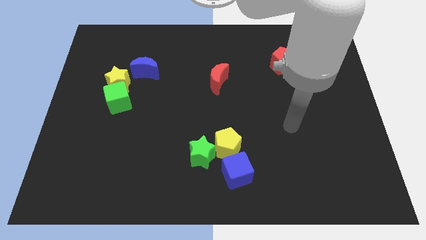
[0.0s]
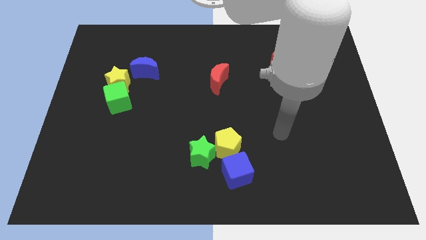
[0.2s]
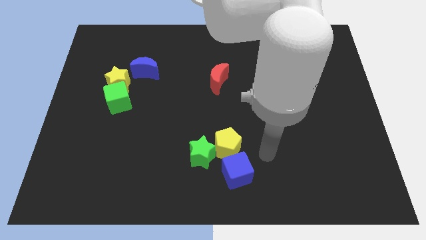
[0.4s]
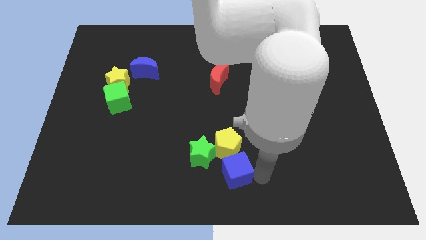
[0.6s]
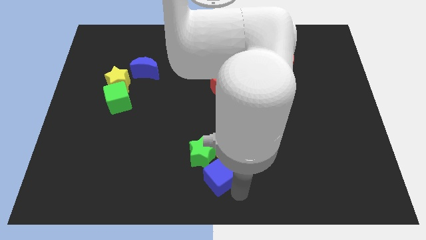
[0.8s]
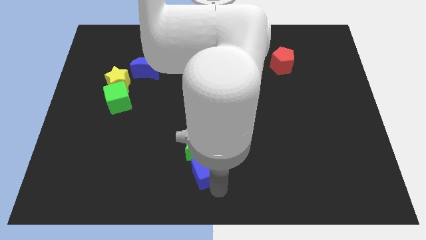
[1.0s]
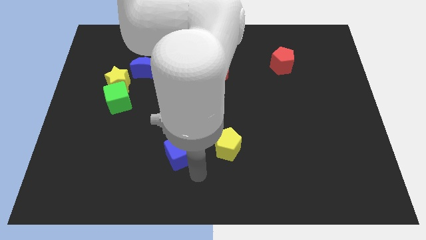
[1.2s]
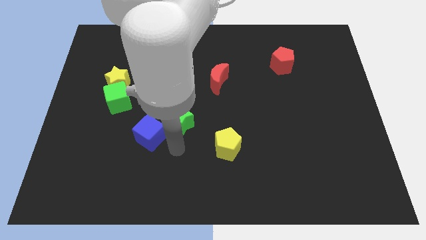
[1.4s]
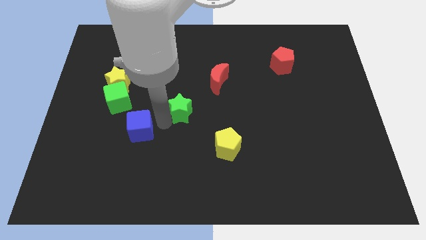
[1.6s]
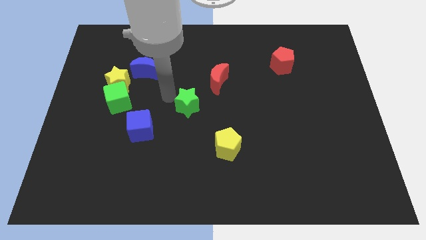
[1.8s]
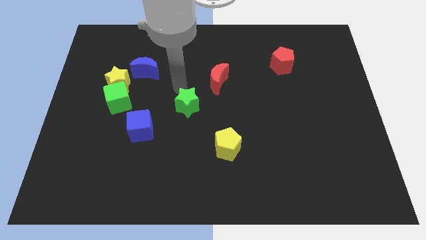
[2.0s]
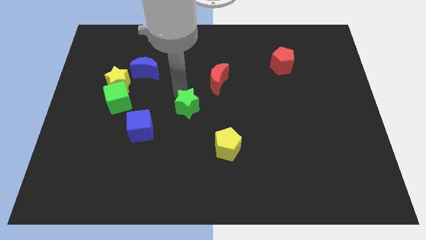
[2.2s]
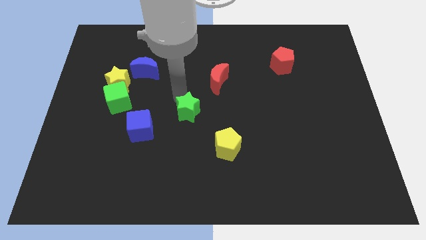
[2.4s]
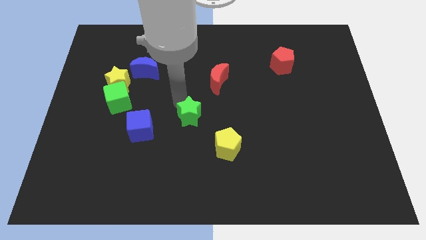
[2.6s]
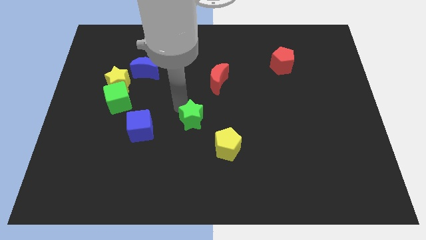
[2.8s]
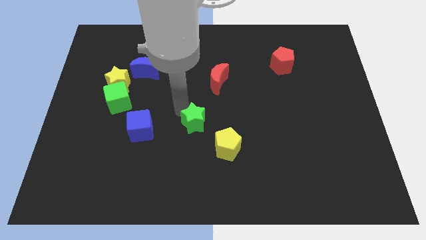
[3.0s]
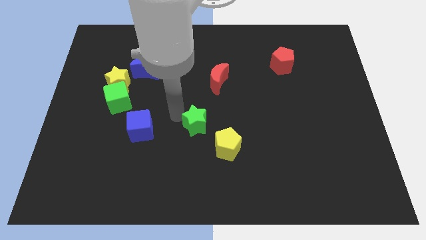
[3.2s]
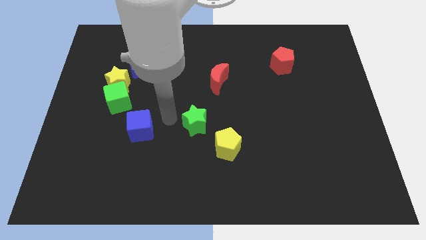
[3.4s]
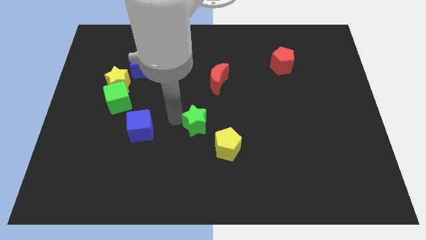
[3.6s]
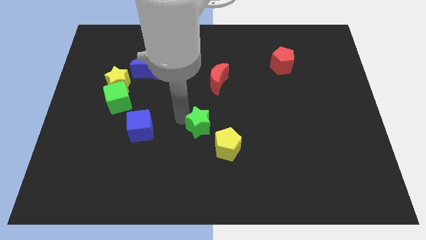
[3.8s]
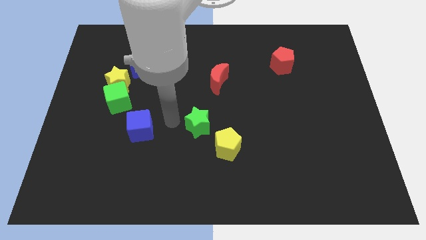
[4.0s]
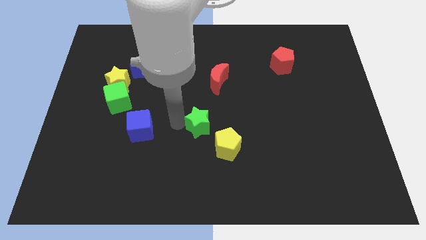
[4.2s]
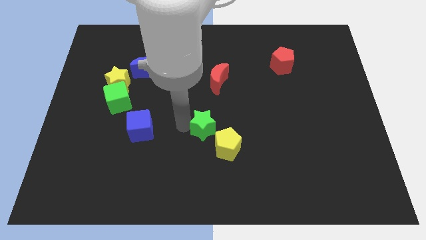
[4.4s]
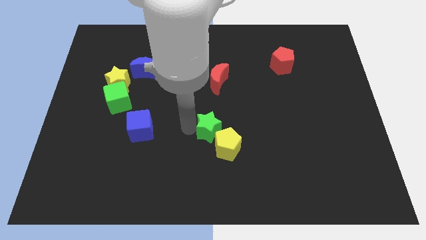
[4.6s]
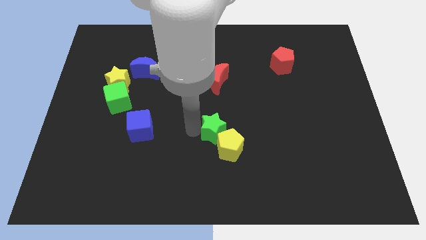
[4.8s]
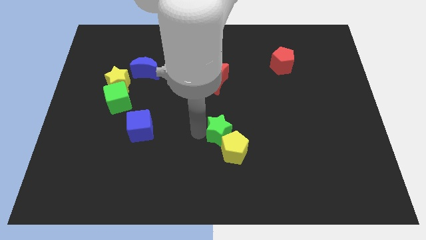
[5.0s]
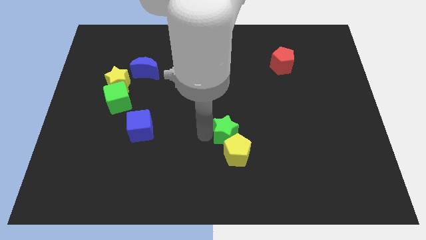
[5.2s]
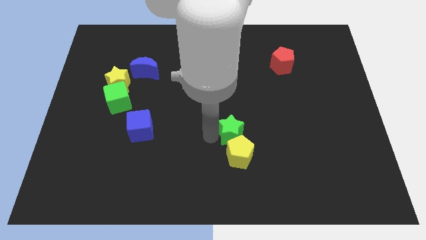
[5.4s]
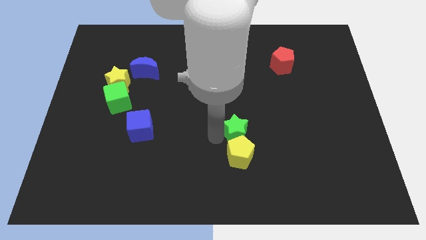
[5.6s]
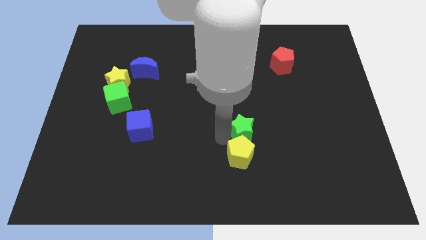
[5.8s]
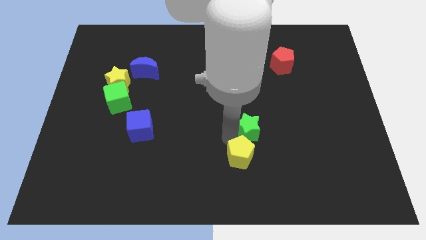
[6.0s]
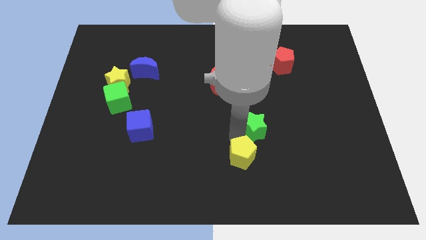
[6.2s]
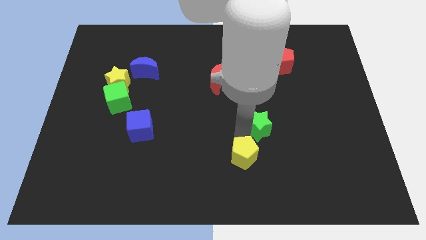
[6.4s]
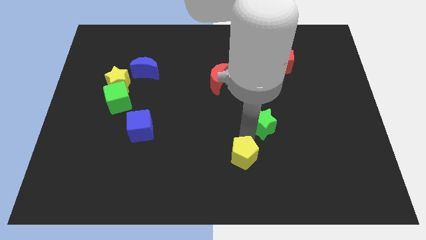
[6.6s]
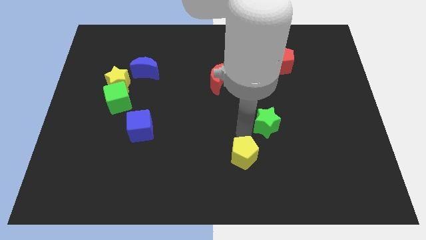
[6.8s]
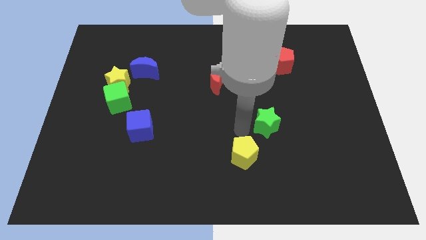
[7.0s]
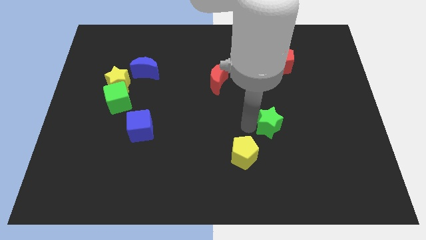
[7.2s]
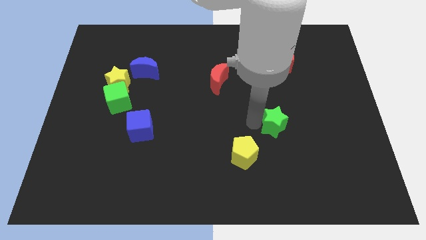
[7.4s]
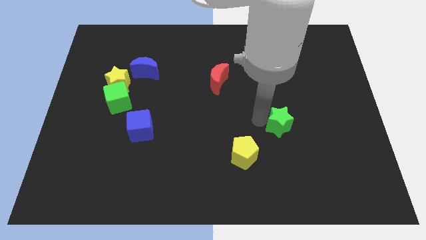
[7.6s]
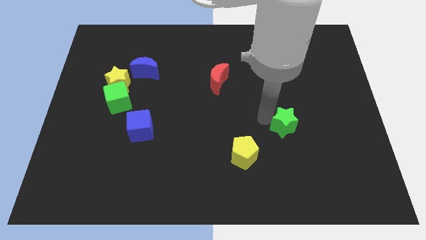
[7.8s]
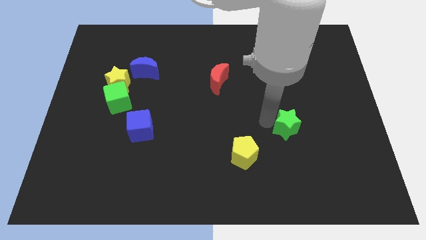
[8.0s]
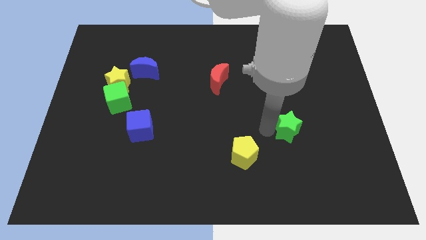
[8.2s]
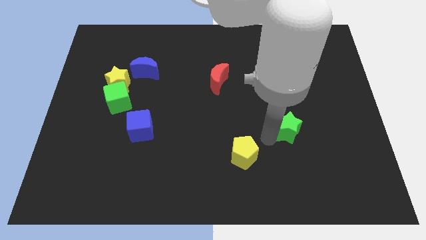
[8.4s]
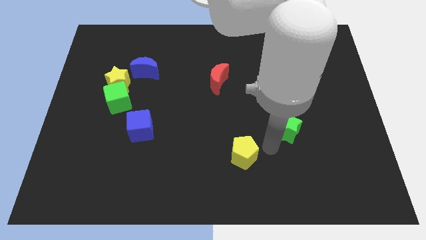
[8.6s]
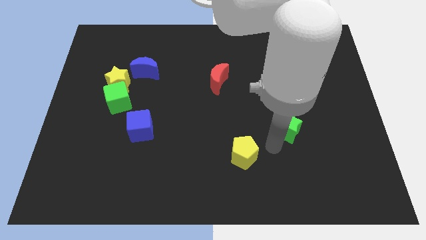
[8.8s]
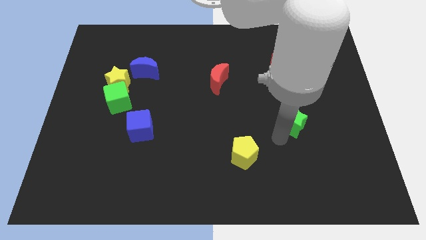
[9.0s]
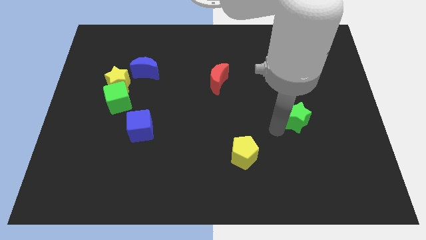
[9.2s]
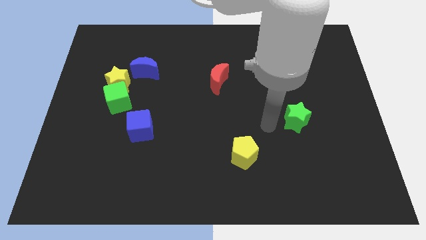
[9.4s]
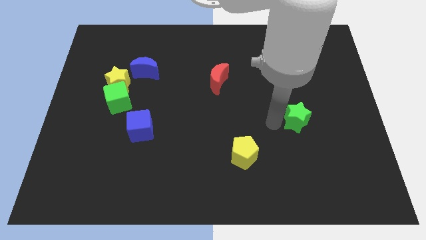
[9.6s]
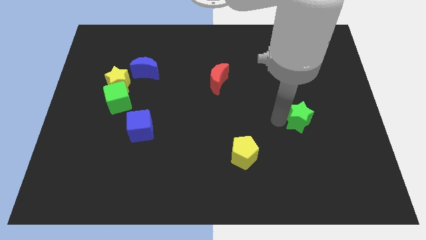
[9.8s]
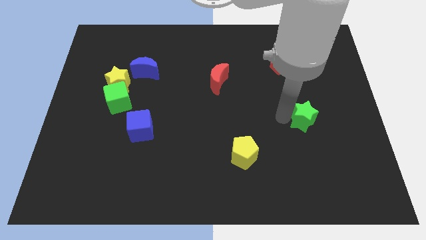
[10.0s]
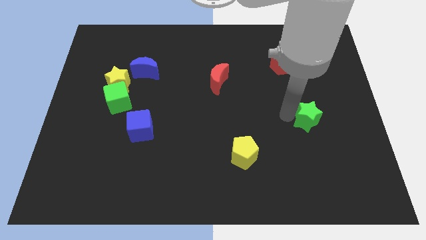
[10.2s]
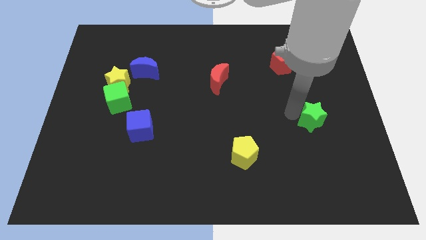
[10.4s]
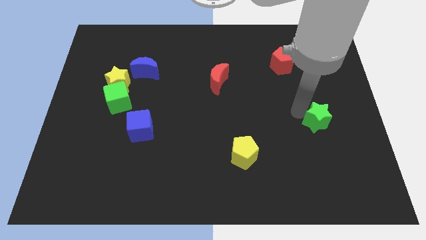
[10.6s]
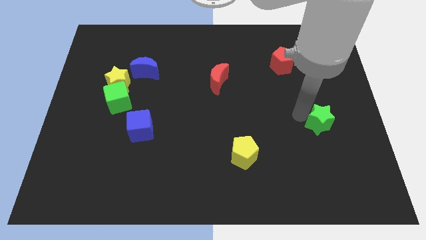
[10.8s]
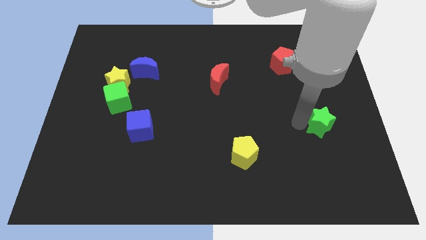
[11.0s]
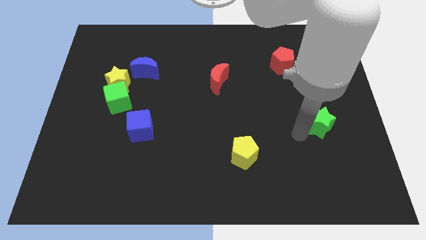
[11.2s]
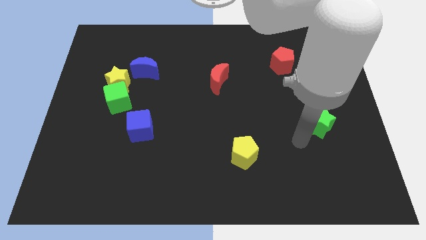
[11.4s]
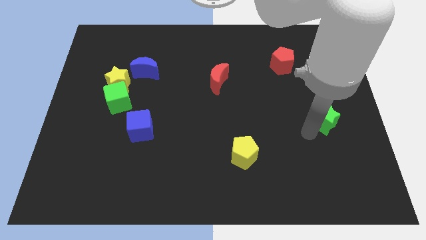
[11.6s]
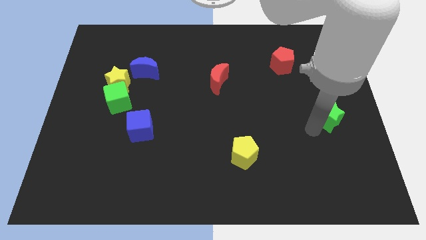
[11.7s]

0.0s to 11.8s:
slide the green star to the right side of the board

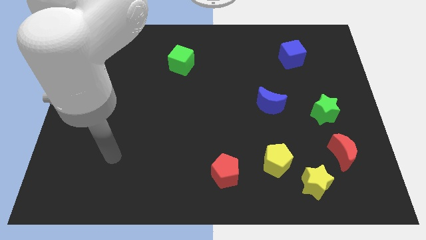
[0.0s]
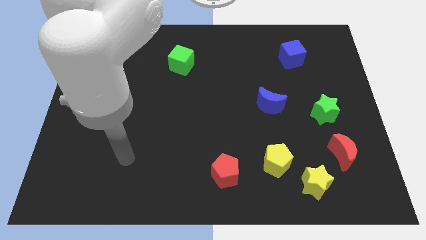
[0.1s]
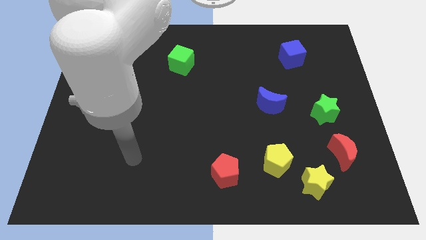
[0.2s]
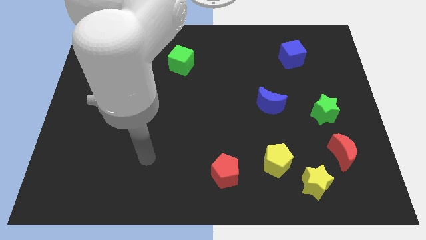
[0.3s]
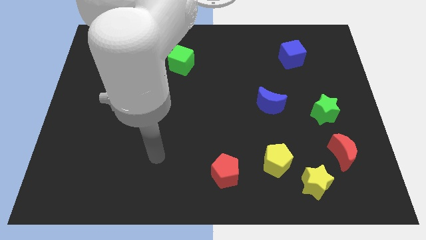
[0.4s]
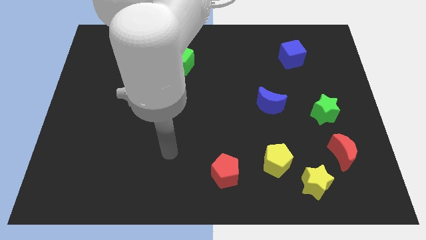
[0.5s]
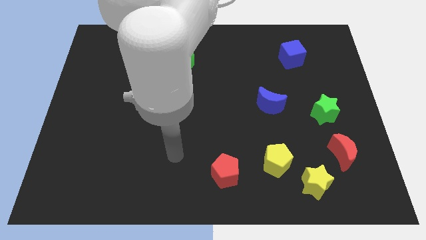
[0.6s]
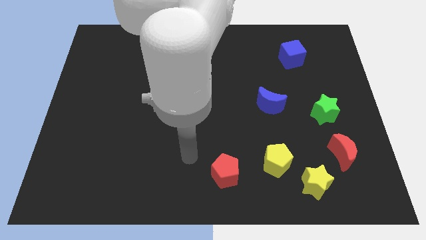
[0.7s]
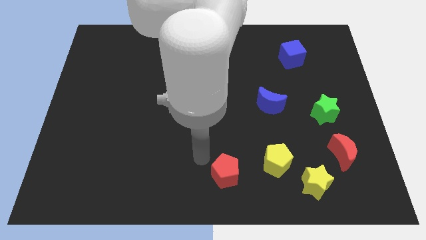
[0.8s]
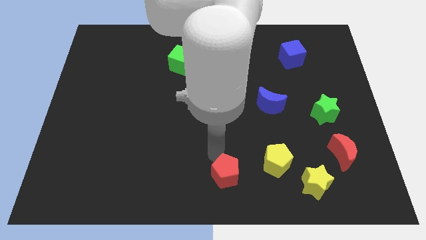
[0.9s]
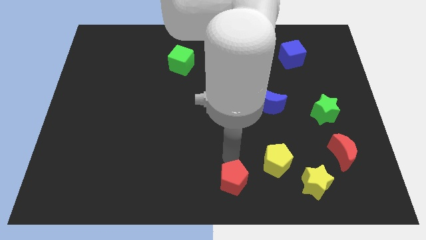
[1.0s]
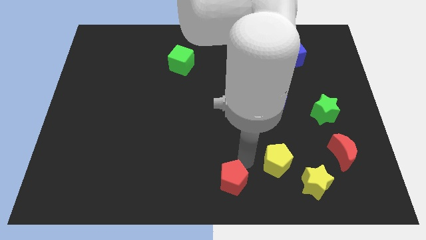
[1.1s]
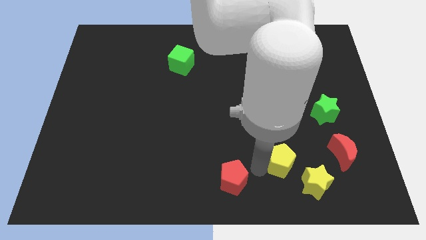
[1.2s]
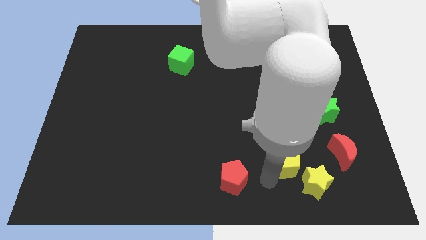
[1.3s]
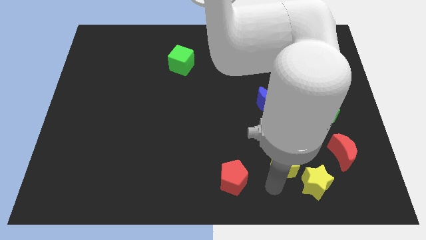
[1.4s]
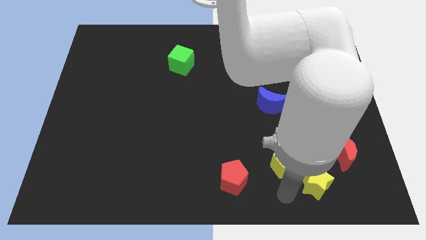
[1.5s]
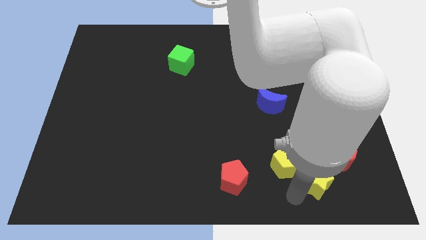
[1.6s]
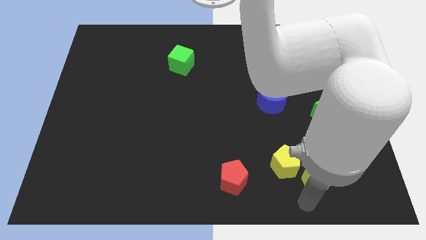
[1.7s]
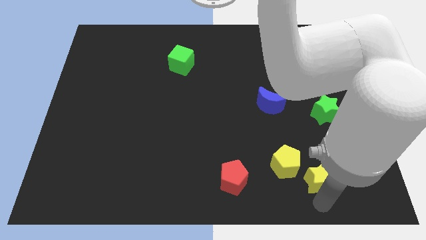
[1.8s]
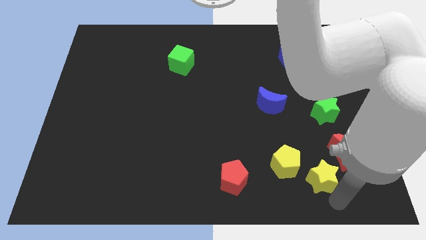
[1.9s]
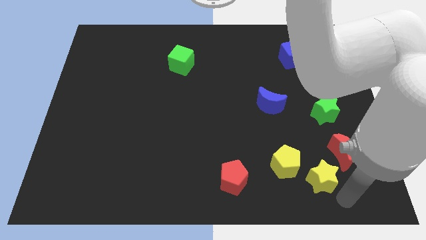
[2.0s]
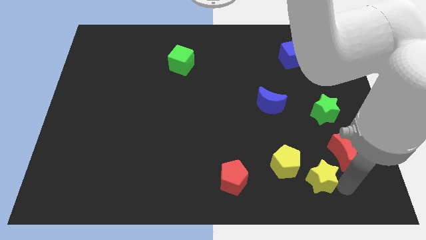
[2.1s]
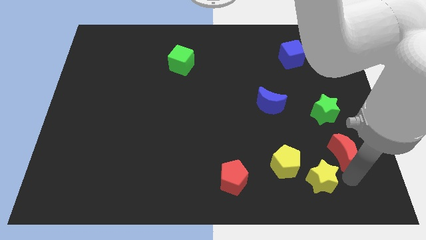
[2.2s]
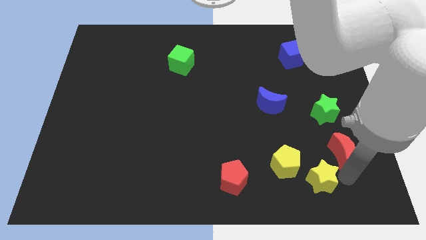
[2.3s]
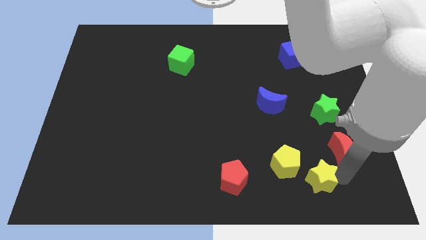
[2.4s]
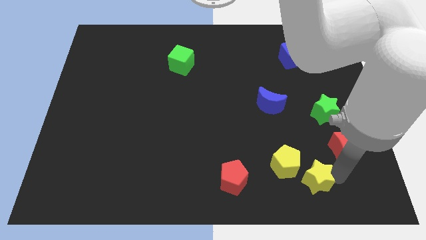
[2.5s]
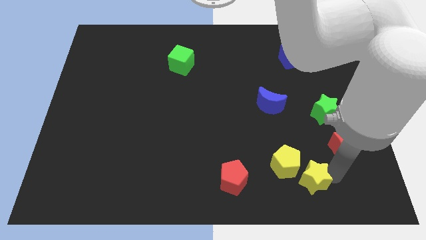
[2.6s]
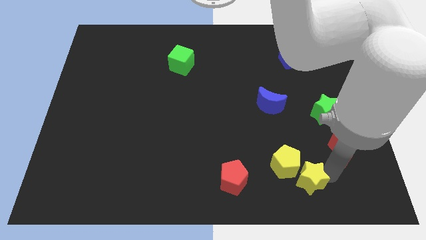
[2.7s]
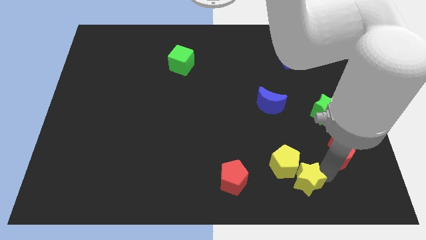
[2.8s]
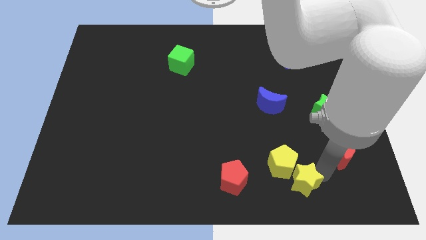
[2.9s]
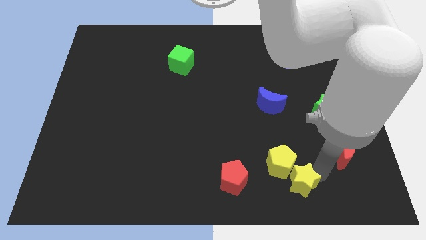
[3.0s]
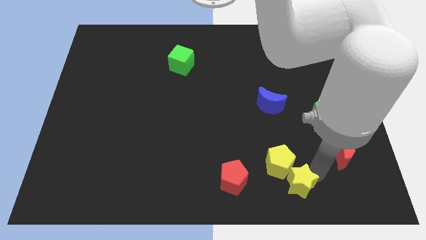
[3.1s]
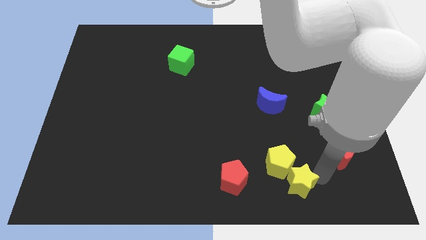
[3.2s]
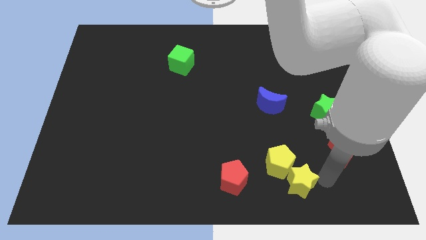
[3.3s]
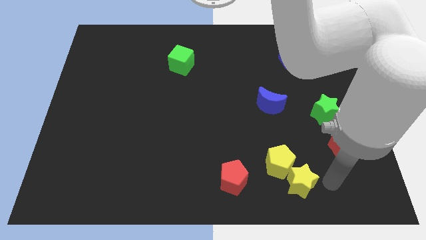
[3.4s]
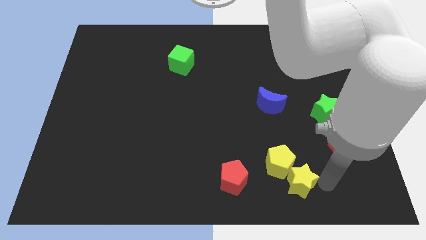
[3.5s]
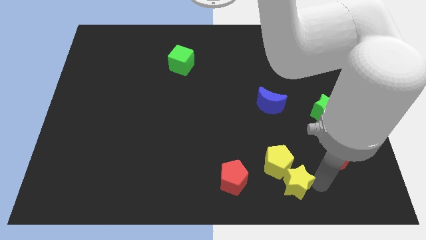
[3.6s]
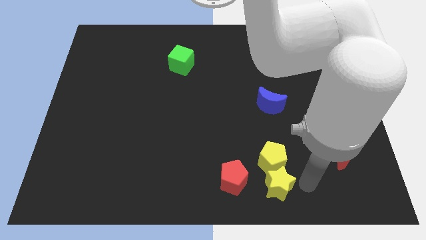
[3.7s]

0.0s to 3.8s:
move the yellow star to the bottom
